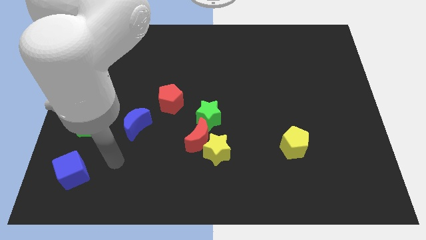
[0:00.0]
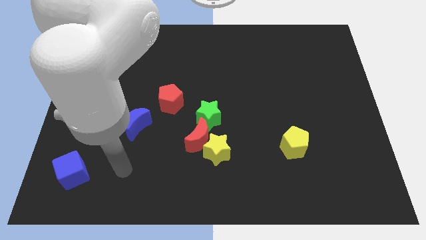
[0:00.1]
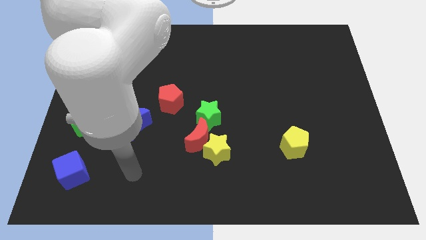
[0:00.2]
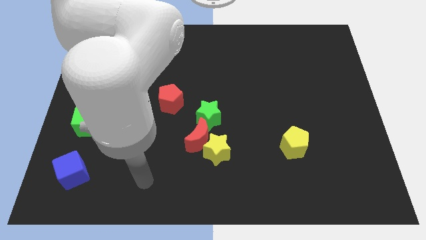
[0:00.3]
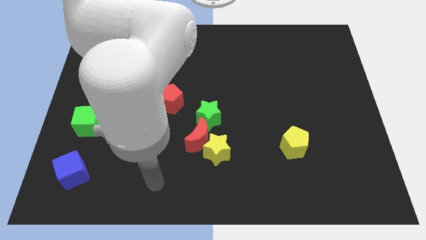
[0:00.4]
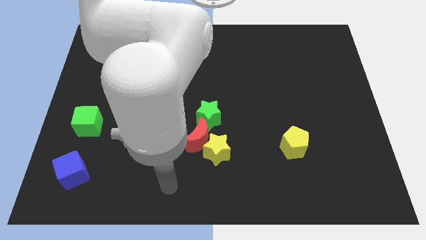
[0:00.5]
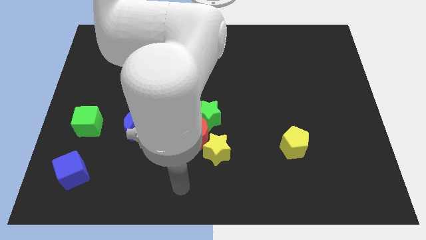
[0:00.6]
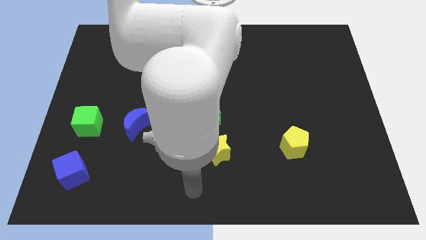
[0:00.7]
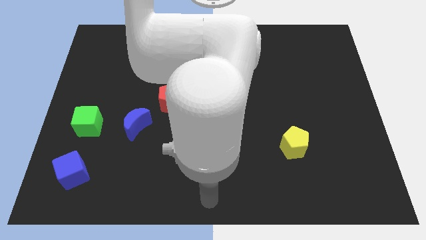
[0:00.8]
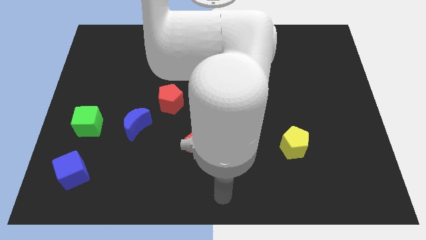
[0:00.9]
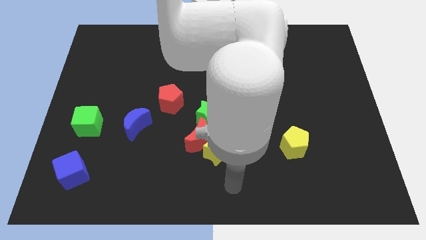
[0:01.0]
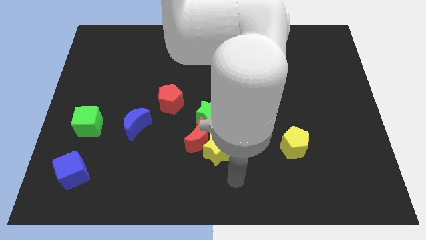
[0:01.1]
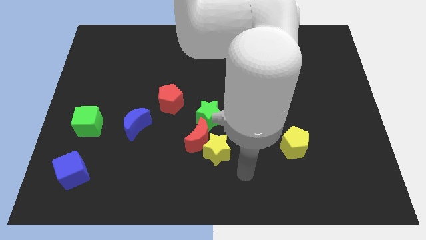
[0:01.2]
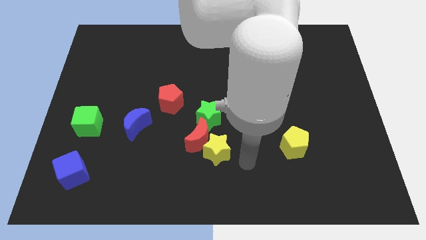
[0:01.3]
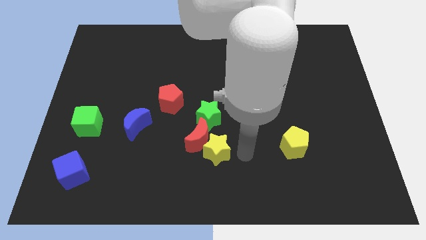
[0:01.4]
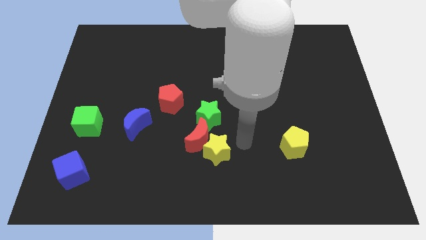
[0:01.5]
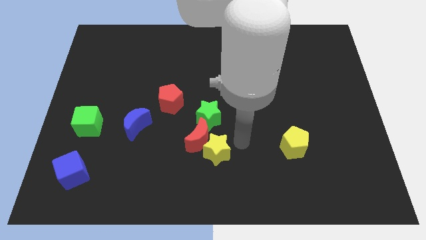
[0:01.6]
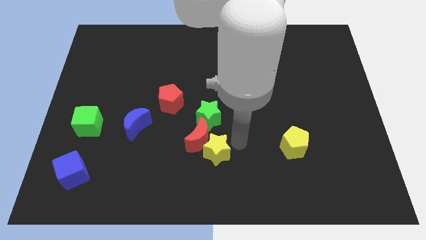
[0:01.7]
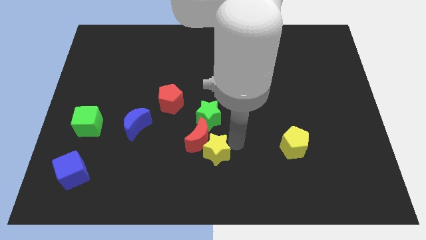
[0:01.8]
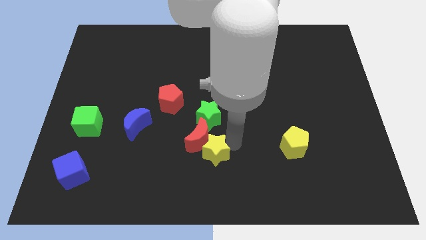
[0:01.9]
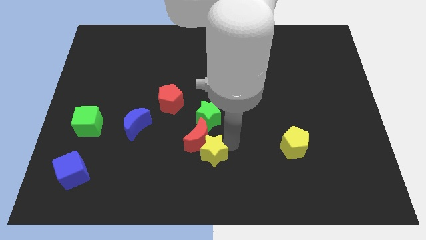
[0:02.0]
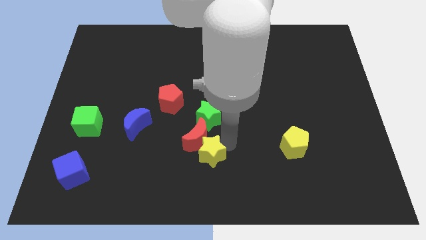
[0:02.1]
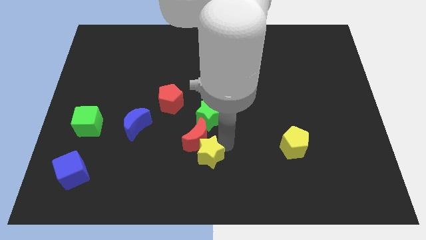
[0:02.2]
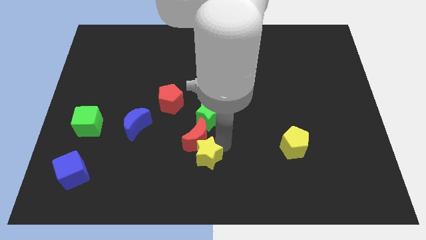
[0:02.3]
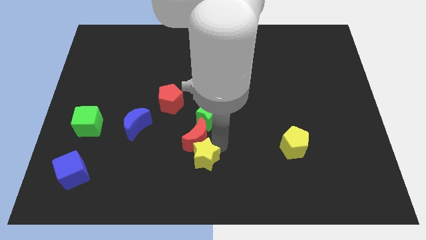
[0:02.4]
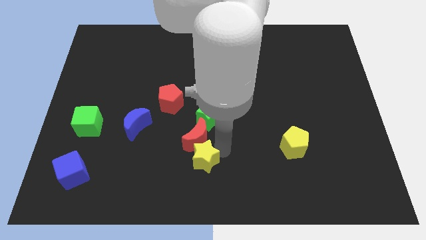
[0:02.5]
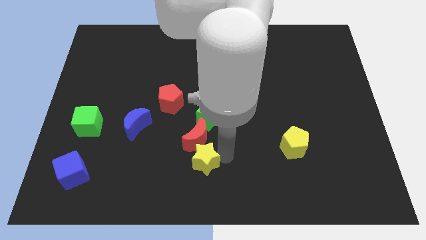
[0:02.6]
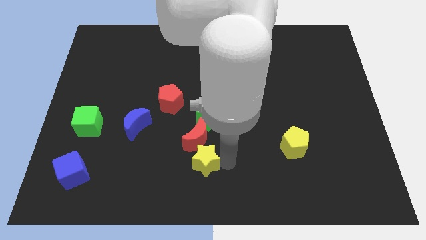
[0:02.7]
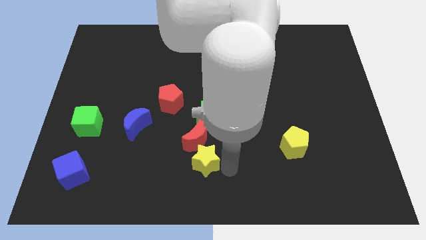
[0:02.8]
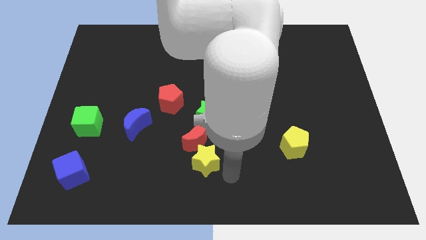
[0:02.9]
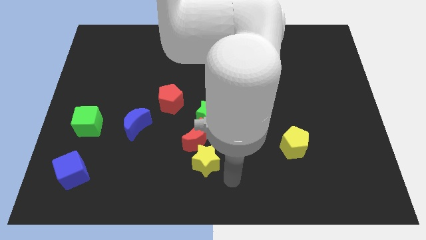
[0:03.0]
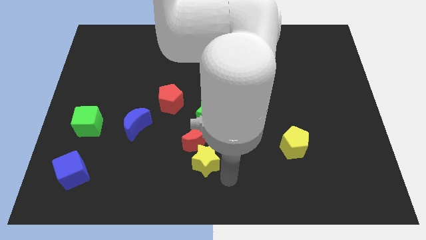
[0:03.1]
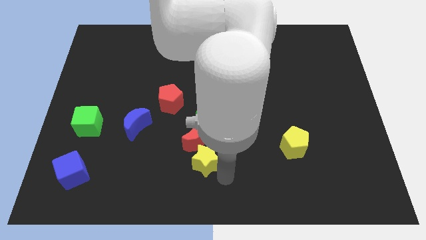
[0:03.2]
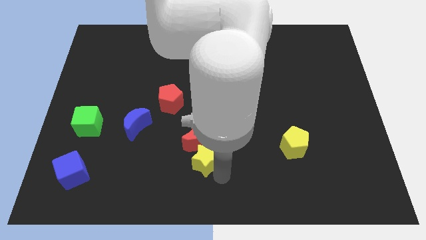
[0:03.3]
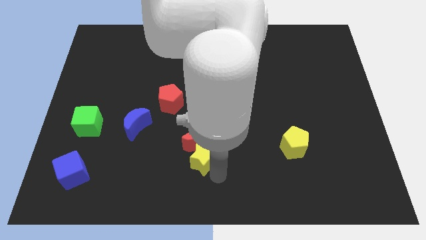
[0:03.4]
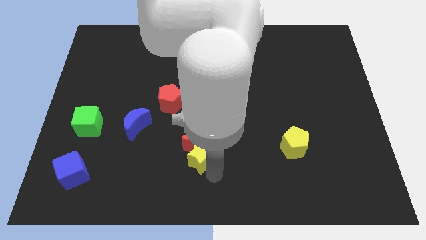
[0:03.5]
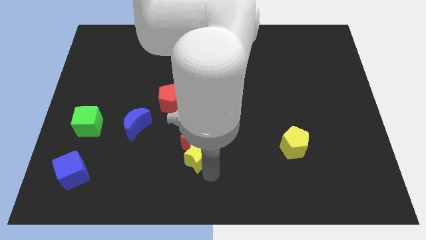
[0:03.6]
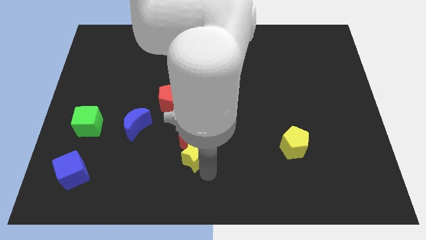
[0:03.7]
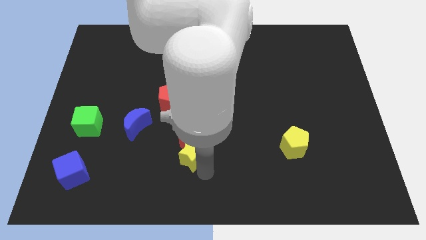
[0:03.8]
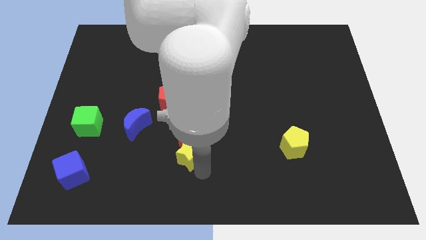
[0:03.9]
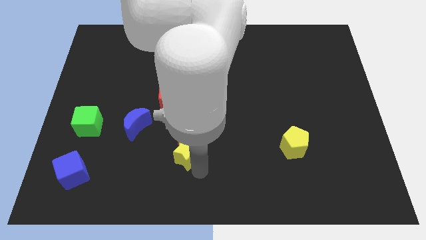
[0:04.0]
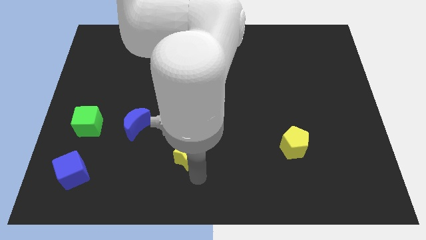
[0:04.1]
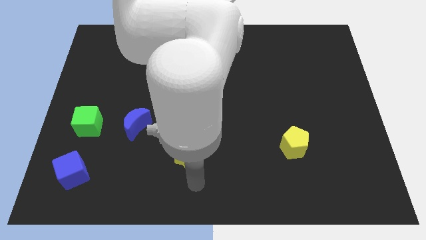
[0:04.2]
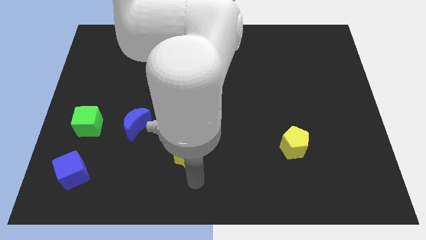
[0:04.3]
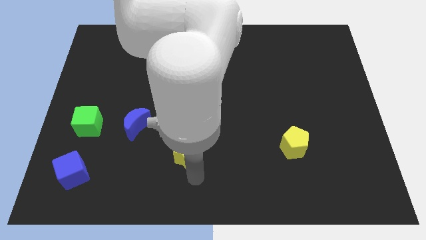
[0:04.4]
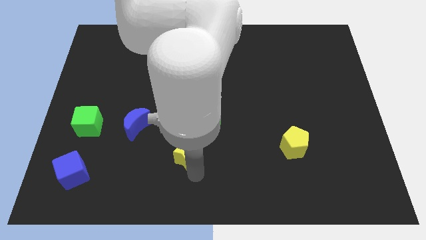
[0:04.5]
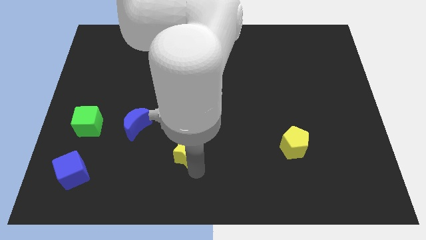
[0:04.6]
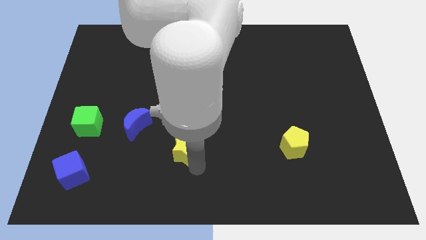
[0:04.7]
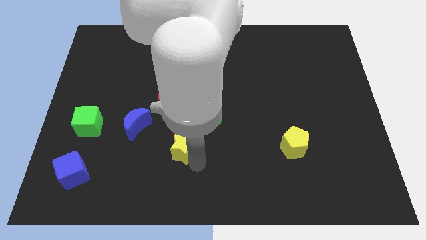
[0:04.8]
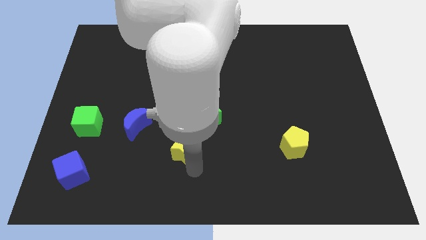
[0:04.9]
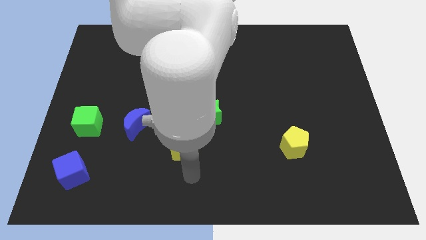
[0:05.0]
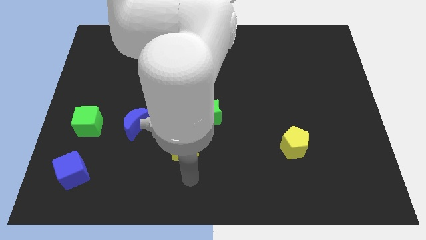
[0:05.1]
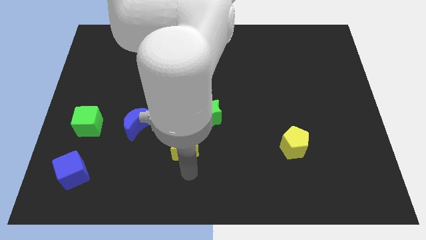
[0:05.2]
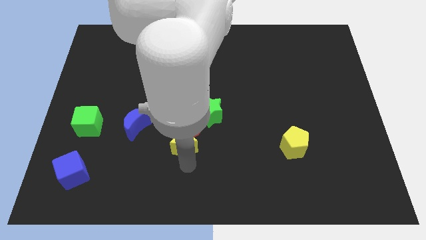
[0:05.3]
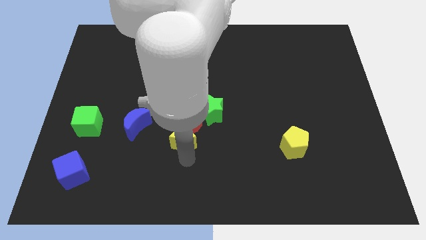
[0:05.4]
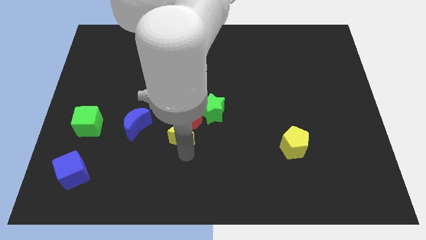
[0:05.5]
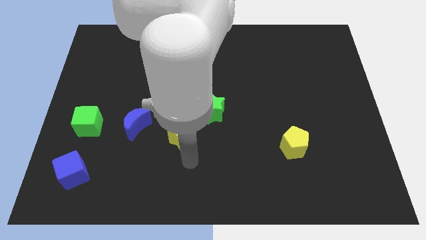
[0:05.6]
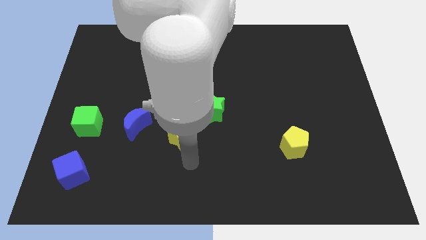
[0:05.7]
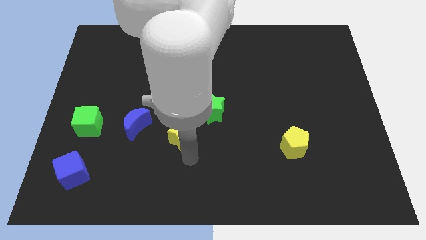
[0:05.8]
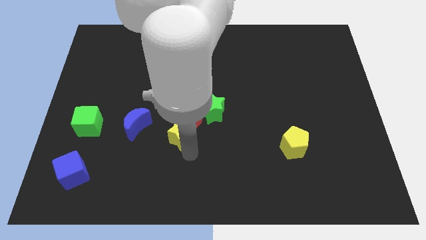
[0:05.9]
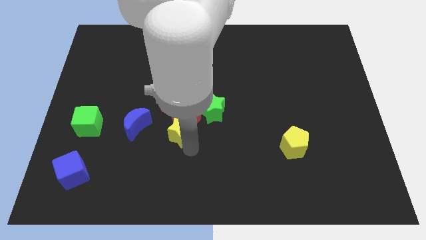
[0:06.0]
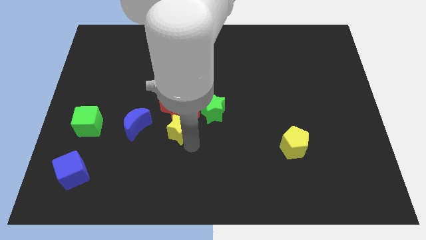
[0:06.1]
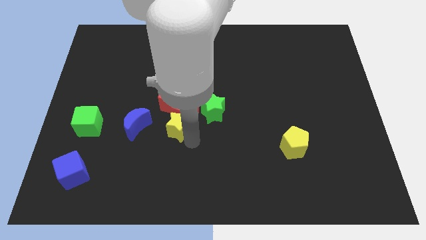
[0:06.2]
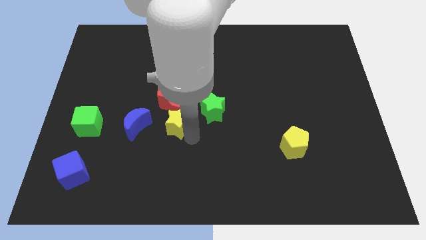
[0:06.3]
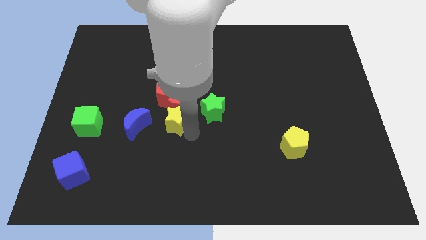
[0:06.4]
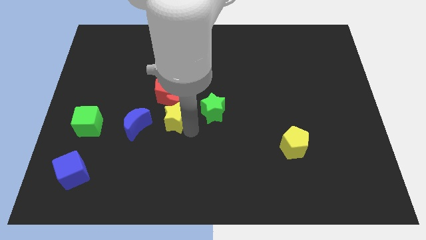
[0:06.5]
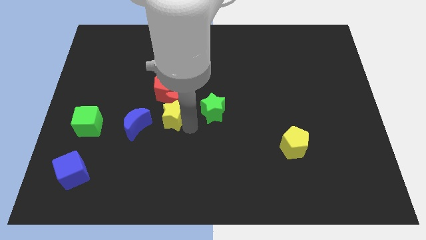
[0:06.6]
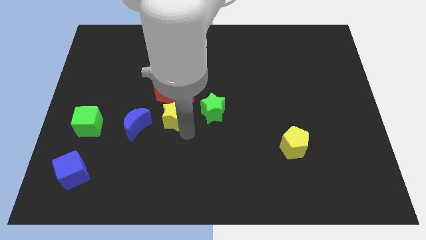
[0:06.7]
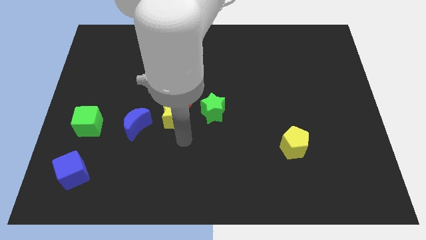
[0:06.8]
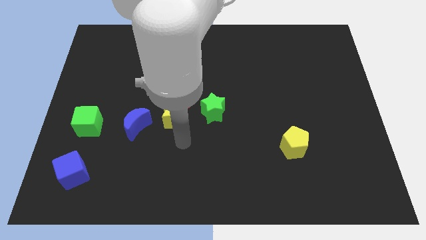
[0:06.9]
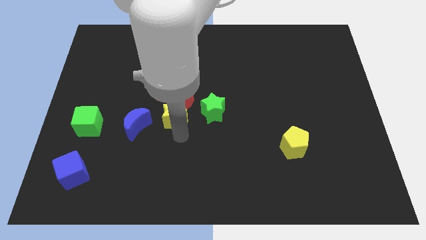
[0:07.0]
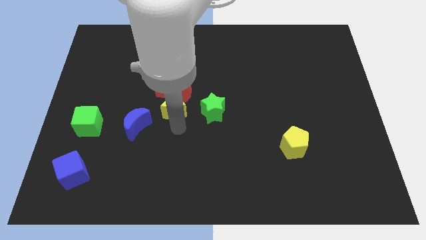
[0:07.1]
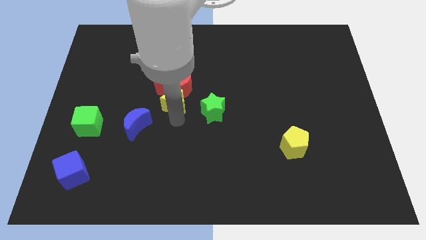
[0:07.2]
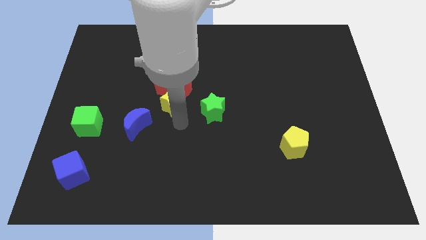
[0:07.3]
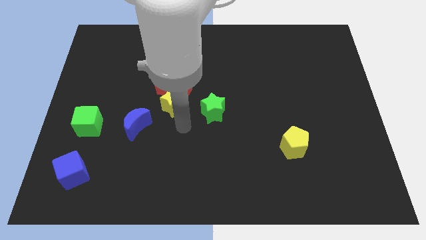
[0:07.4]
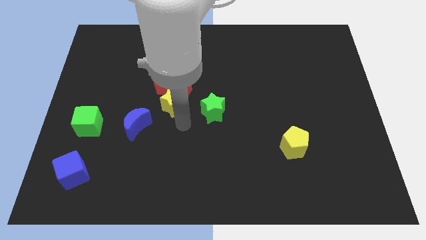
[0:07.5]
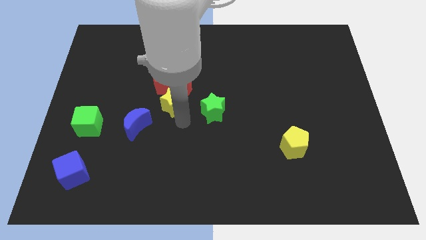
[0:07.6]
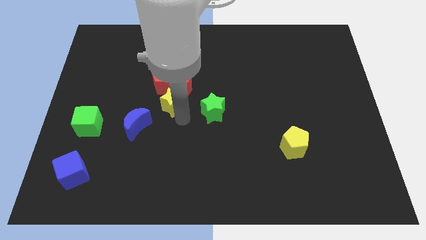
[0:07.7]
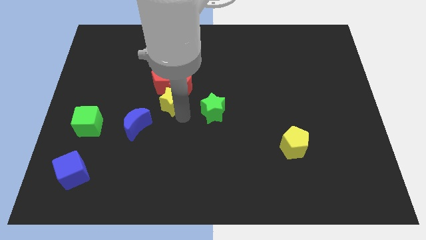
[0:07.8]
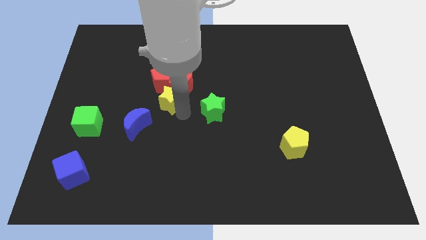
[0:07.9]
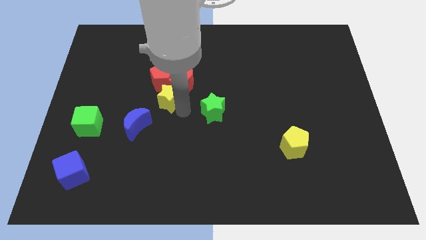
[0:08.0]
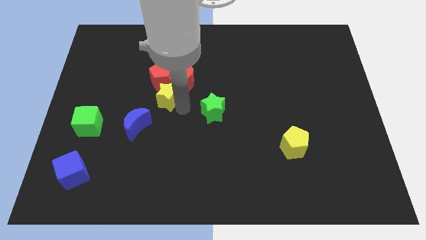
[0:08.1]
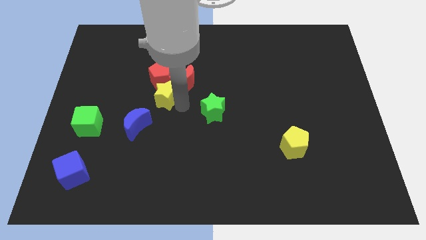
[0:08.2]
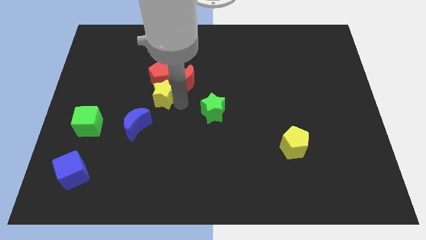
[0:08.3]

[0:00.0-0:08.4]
slide the yellow star next to the red pentagon
